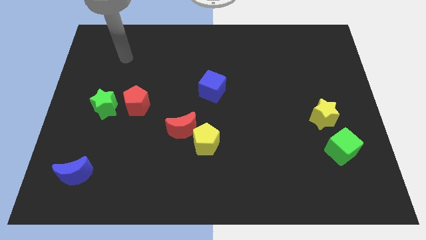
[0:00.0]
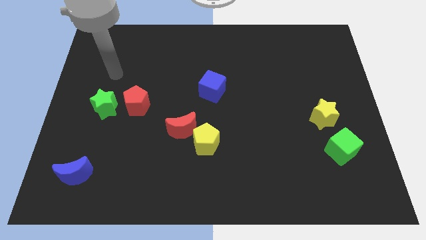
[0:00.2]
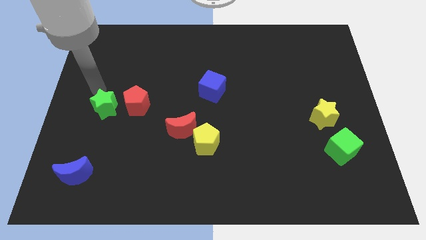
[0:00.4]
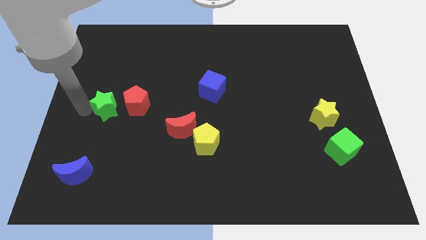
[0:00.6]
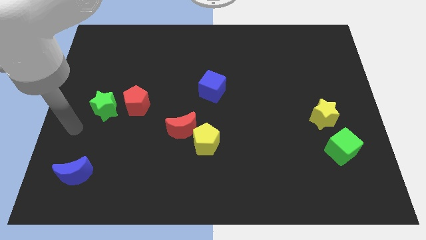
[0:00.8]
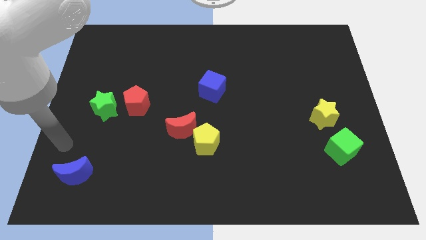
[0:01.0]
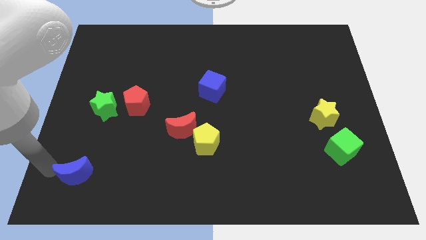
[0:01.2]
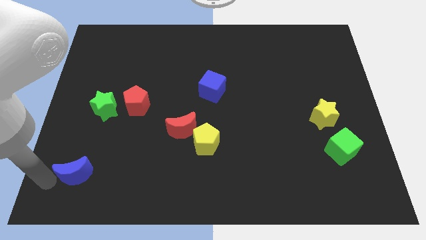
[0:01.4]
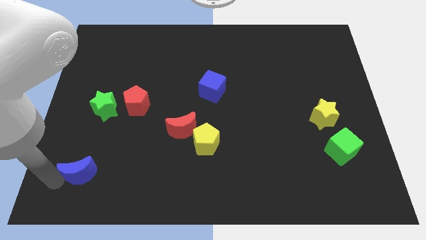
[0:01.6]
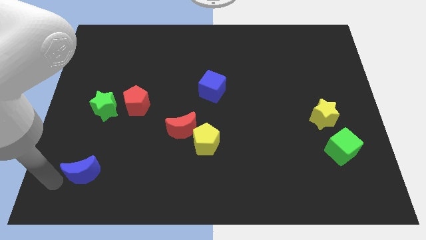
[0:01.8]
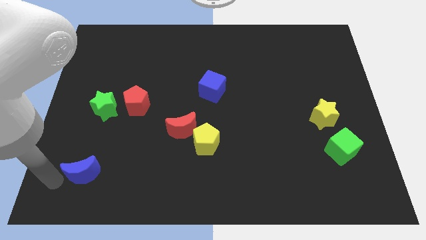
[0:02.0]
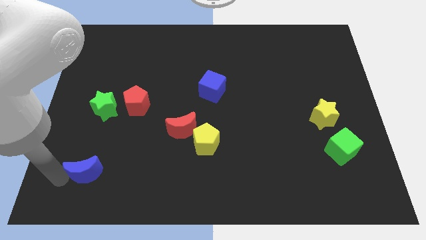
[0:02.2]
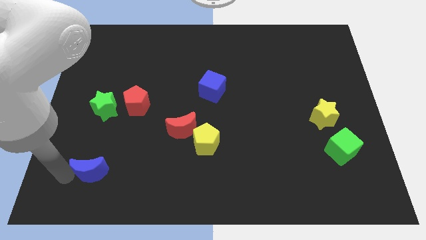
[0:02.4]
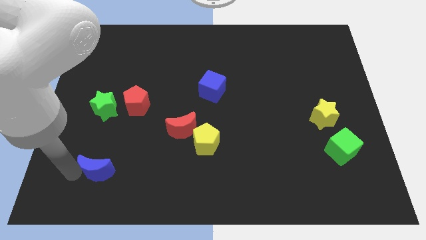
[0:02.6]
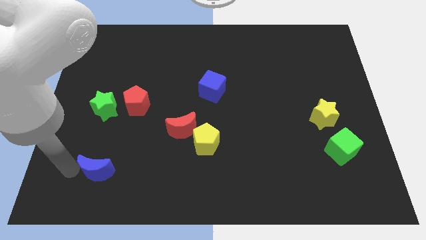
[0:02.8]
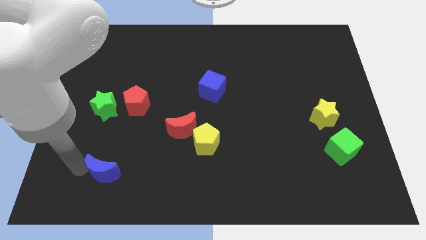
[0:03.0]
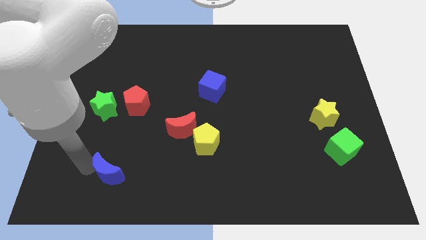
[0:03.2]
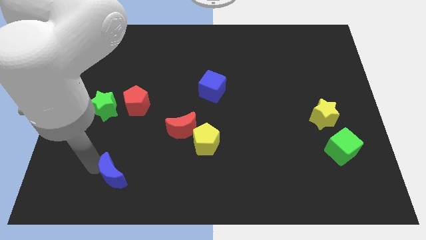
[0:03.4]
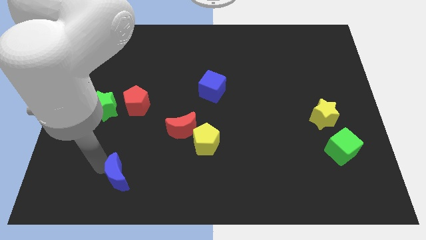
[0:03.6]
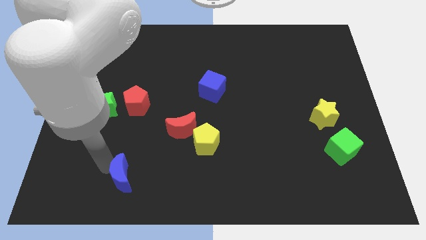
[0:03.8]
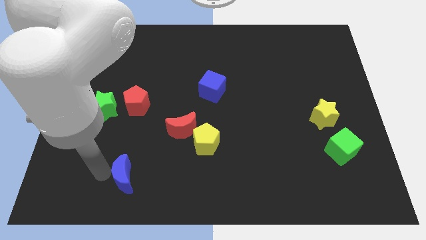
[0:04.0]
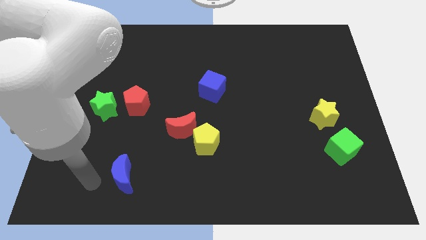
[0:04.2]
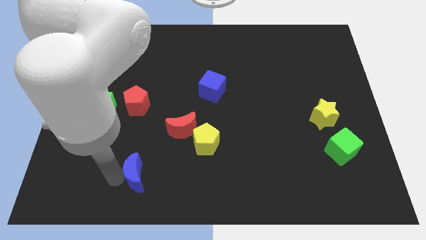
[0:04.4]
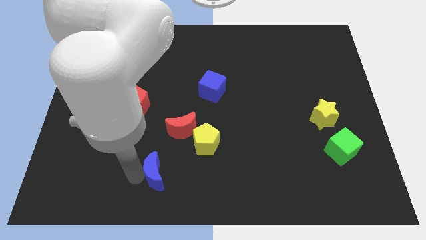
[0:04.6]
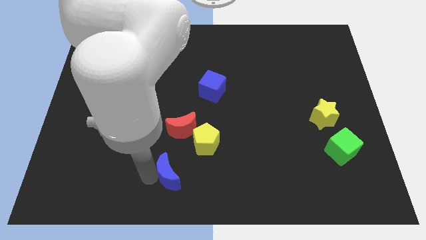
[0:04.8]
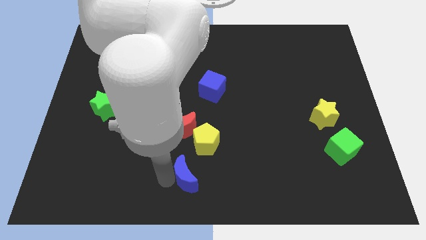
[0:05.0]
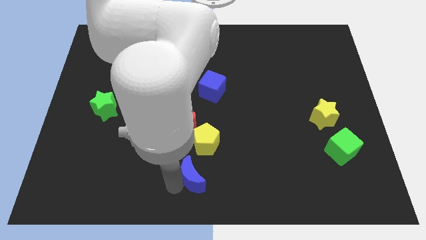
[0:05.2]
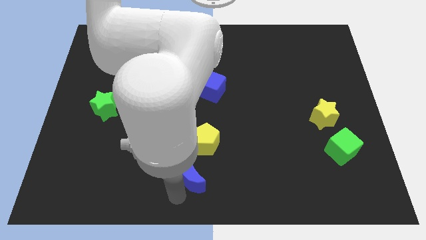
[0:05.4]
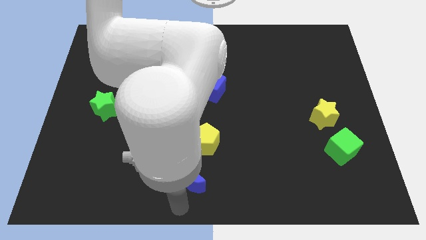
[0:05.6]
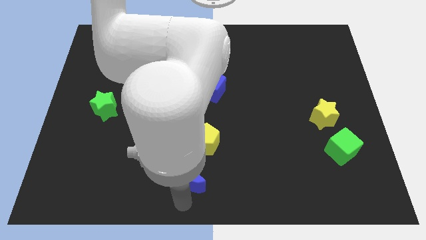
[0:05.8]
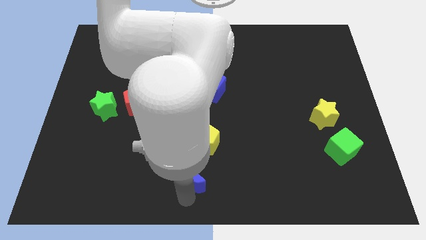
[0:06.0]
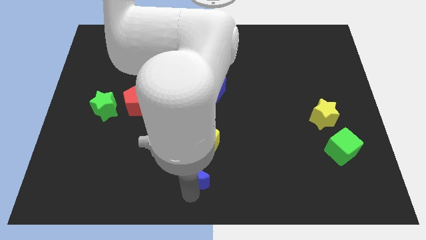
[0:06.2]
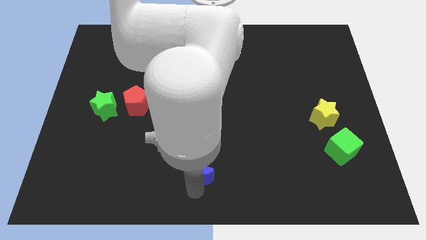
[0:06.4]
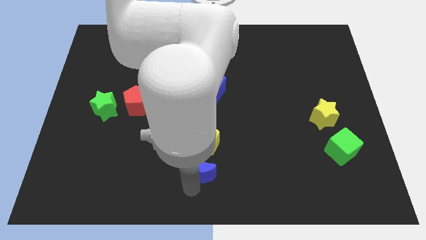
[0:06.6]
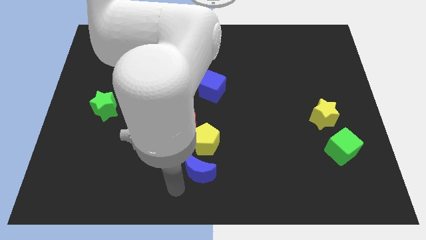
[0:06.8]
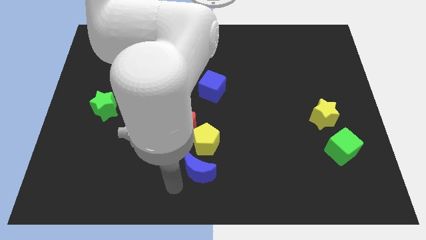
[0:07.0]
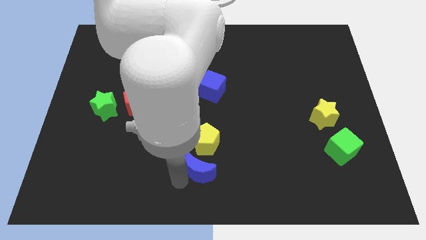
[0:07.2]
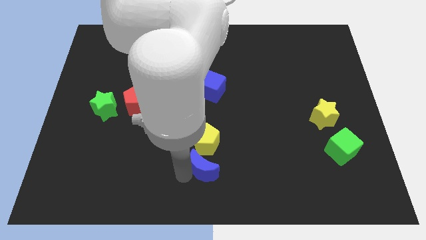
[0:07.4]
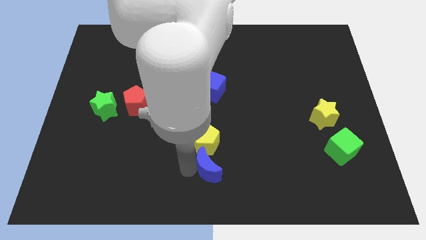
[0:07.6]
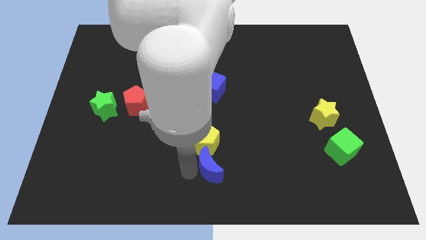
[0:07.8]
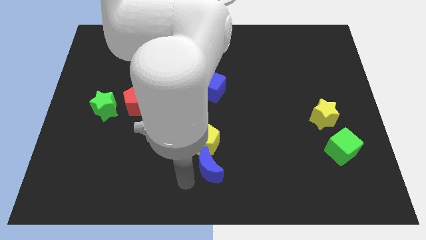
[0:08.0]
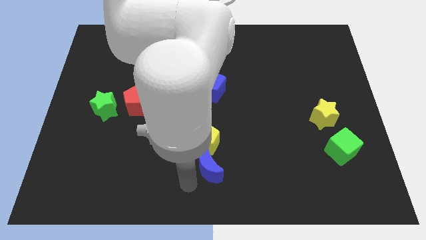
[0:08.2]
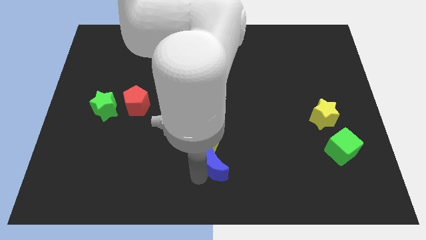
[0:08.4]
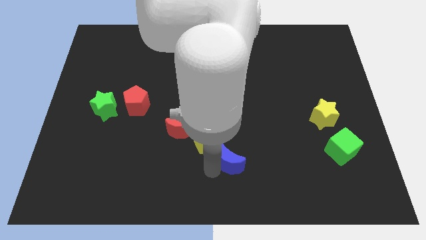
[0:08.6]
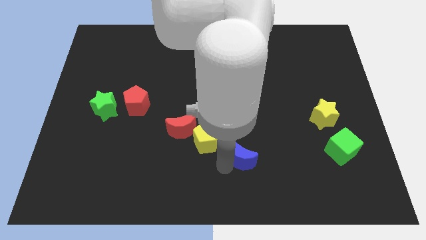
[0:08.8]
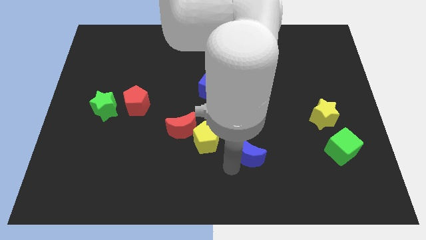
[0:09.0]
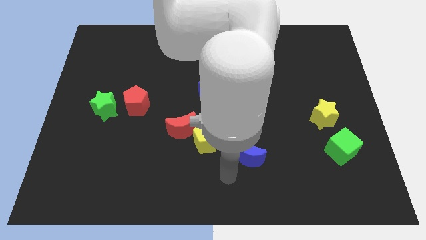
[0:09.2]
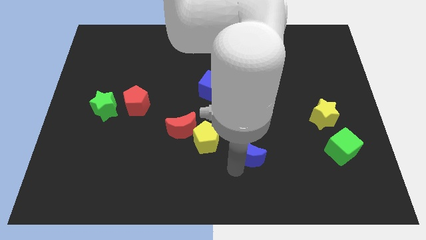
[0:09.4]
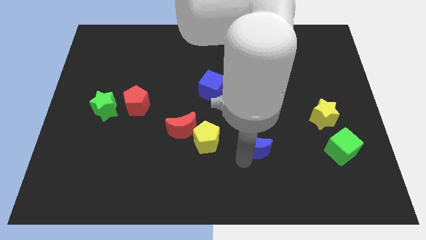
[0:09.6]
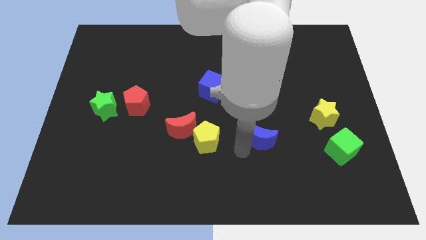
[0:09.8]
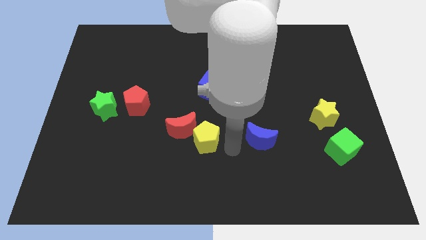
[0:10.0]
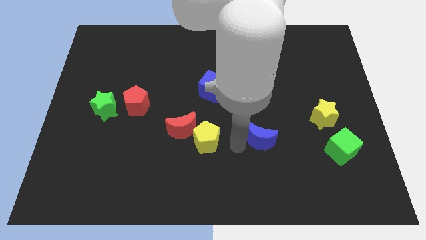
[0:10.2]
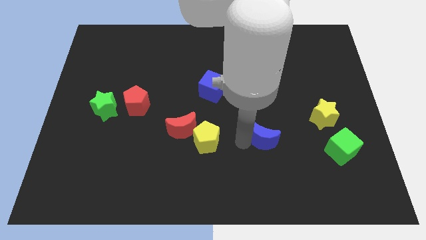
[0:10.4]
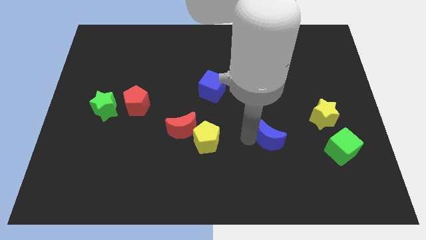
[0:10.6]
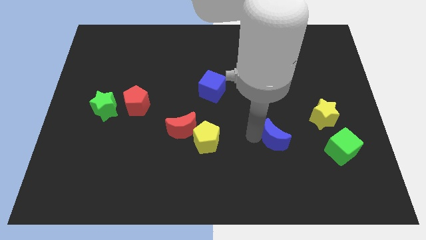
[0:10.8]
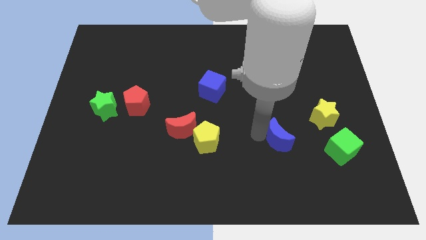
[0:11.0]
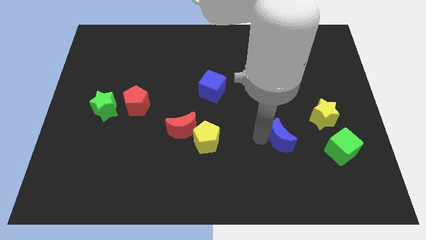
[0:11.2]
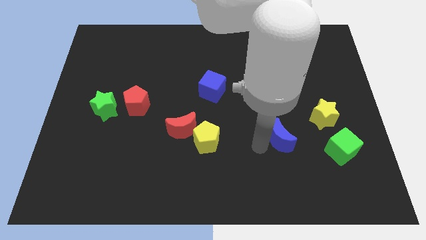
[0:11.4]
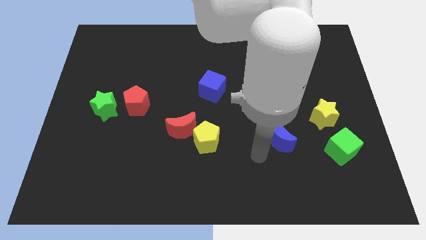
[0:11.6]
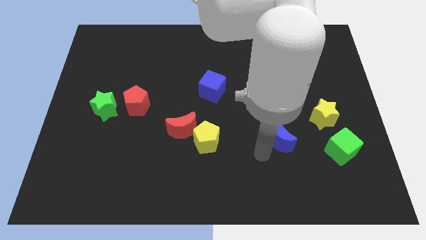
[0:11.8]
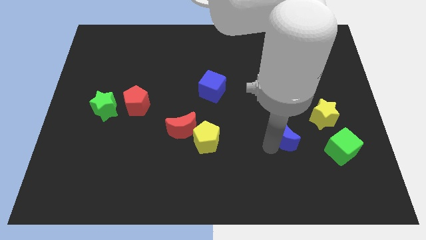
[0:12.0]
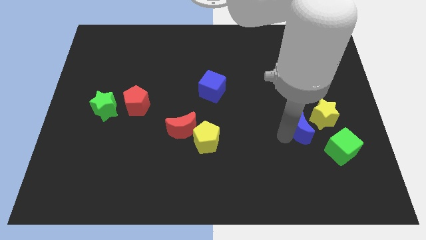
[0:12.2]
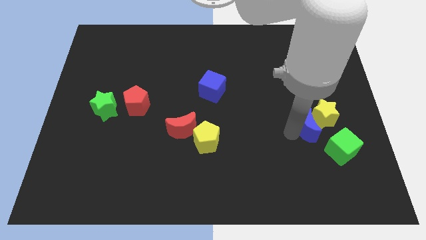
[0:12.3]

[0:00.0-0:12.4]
push the blue moon close to the yellow star
